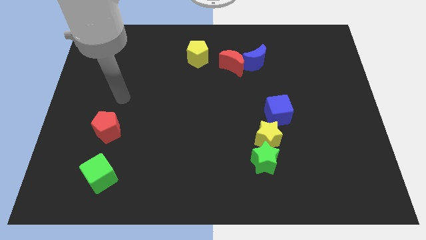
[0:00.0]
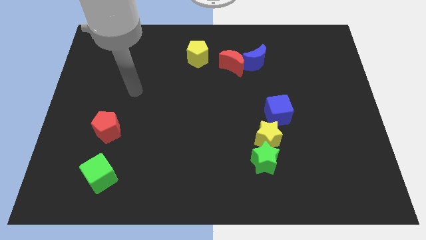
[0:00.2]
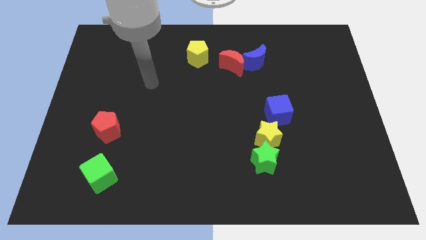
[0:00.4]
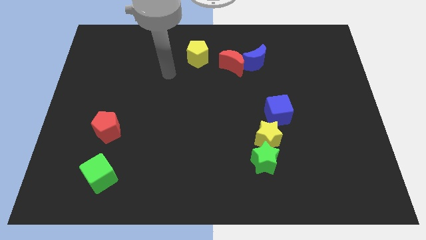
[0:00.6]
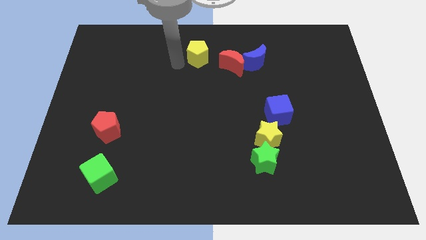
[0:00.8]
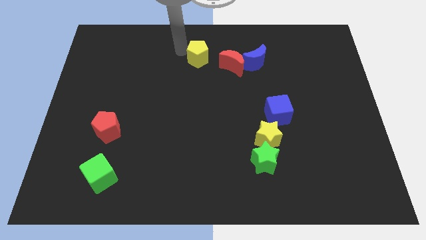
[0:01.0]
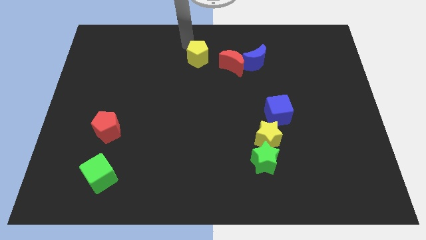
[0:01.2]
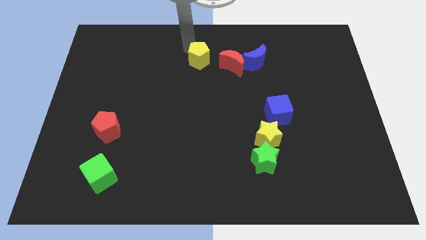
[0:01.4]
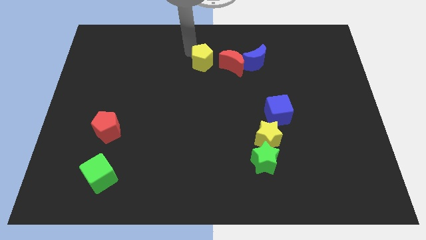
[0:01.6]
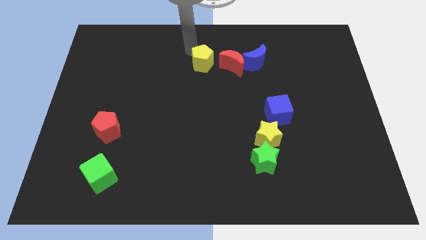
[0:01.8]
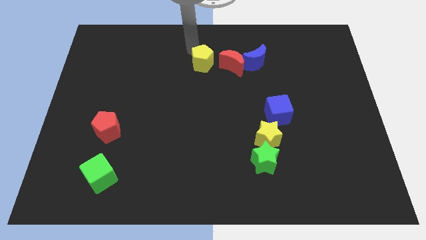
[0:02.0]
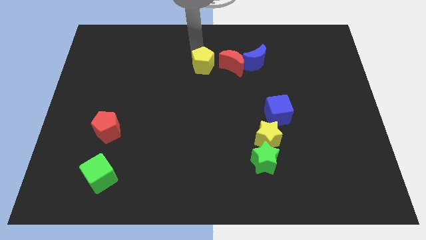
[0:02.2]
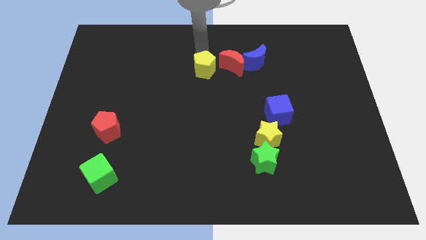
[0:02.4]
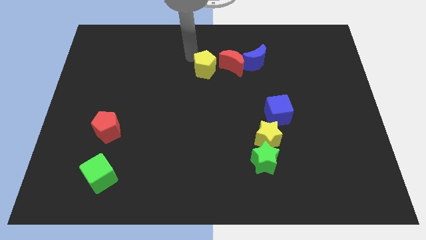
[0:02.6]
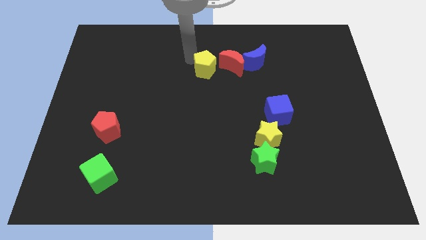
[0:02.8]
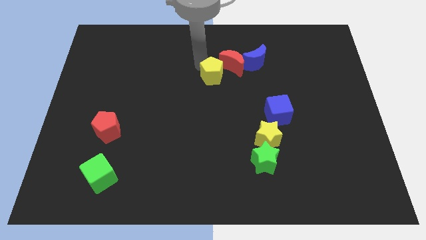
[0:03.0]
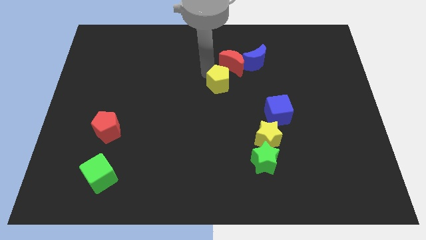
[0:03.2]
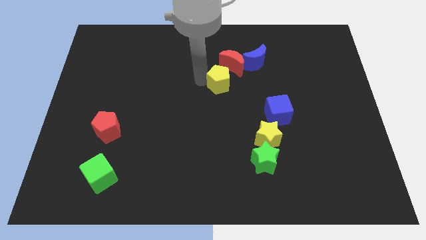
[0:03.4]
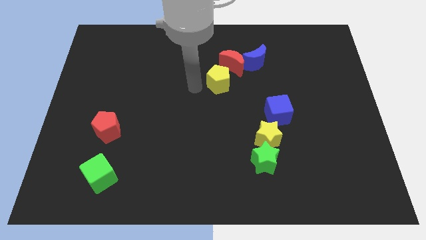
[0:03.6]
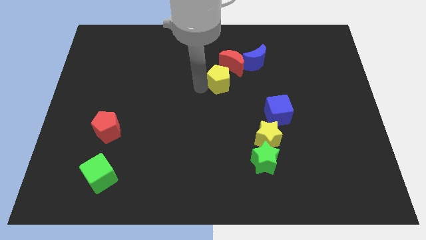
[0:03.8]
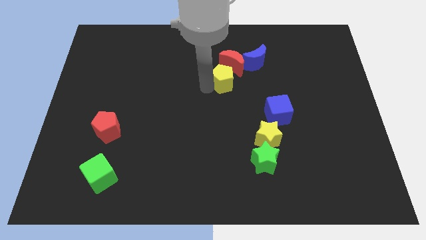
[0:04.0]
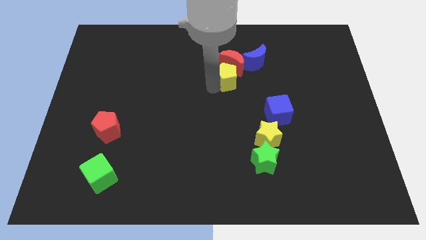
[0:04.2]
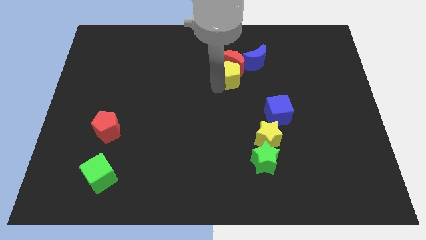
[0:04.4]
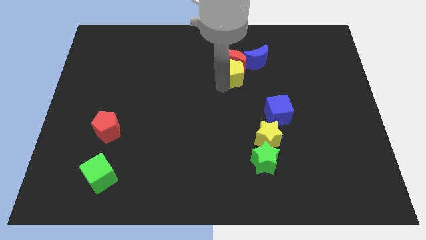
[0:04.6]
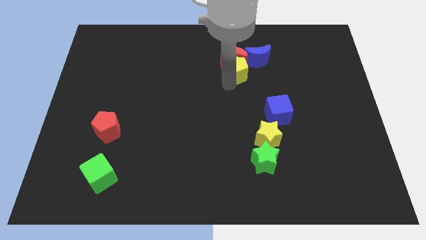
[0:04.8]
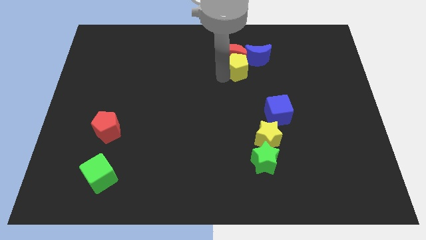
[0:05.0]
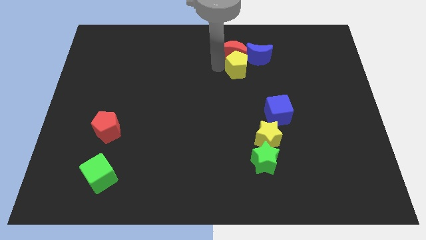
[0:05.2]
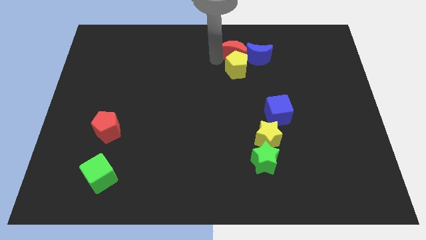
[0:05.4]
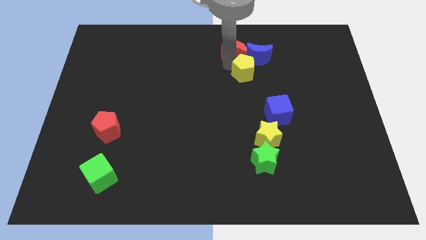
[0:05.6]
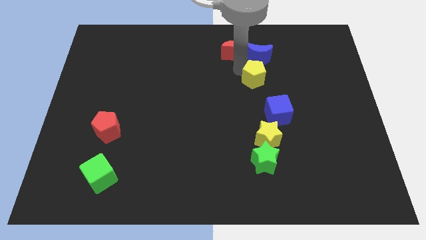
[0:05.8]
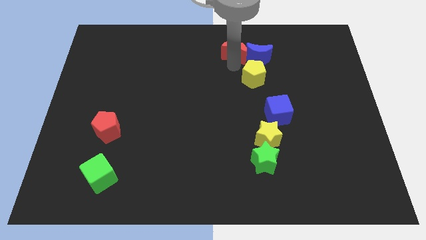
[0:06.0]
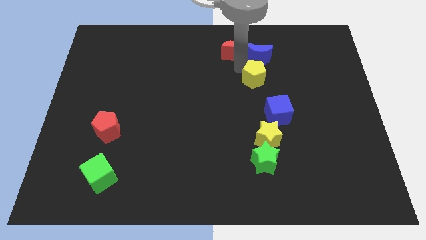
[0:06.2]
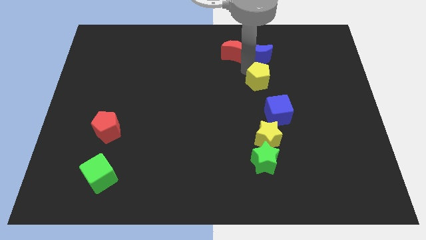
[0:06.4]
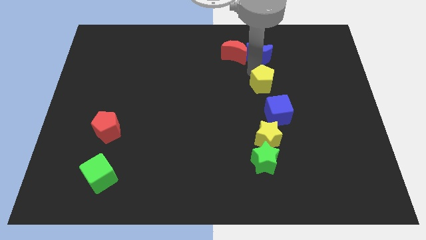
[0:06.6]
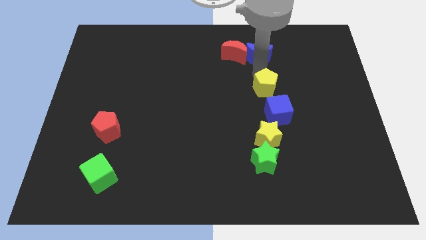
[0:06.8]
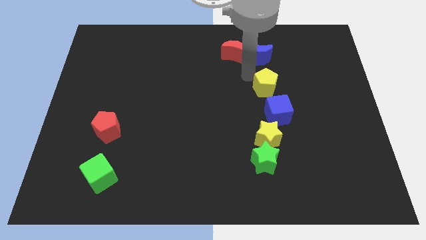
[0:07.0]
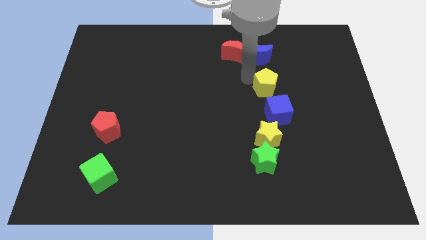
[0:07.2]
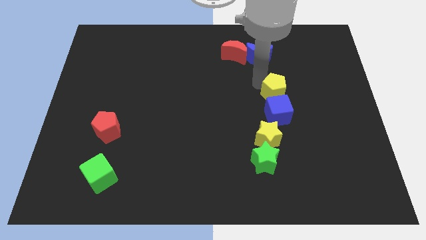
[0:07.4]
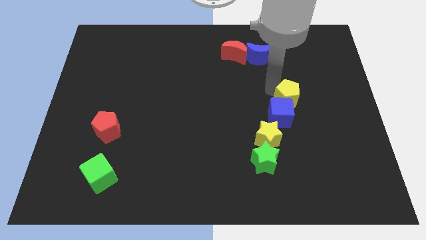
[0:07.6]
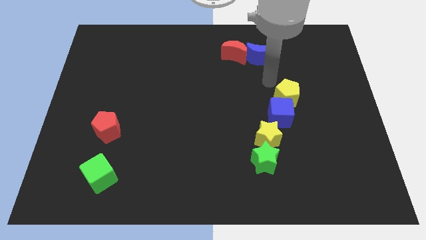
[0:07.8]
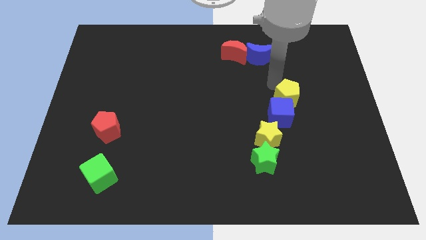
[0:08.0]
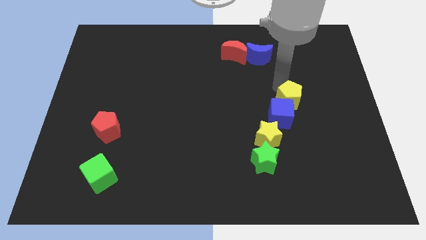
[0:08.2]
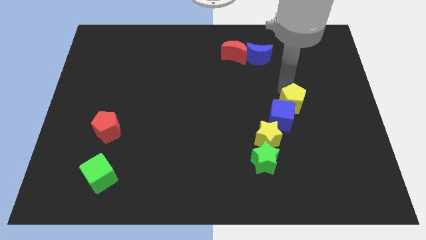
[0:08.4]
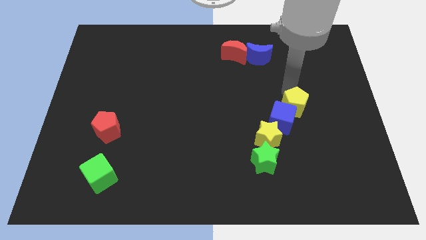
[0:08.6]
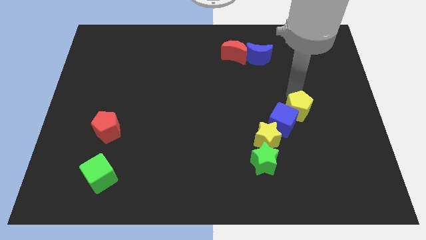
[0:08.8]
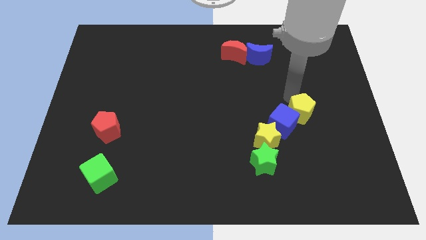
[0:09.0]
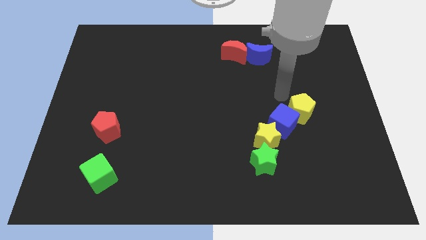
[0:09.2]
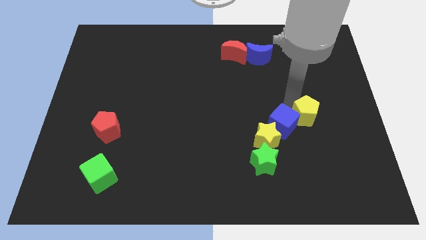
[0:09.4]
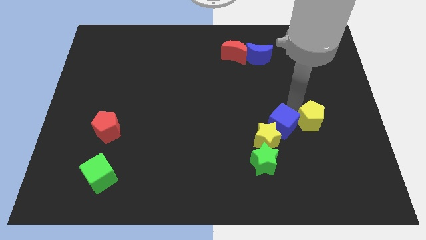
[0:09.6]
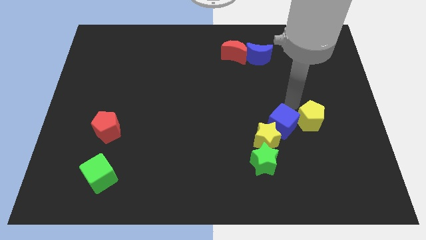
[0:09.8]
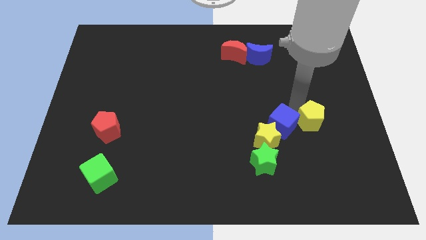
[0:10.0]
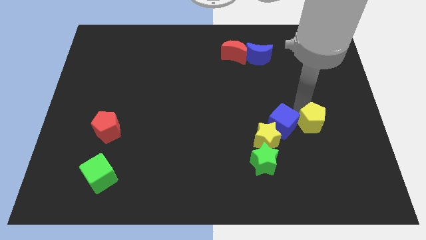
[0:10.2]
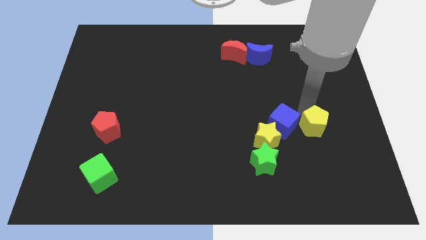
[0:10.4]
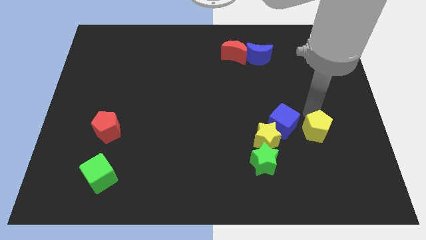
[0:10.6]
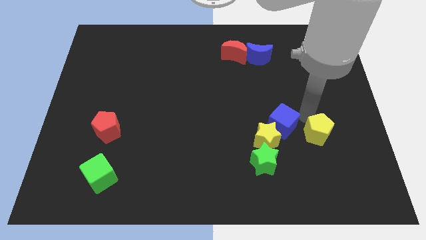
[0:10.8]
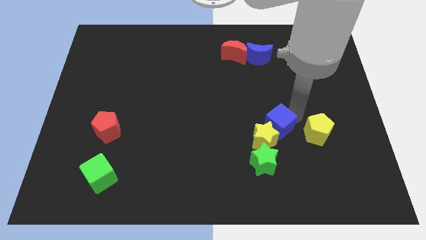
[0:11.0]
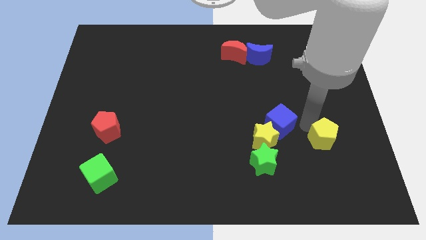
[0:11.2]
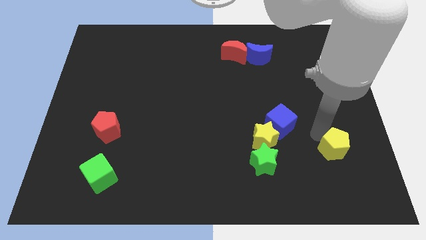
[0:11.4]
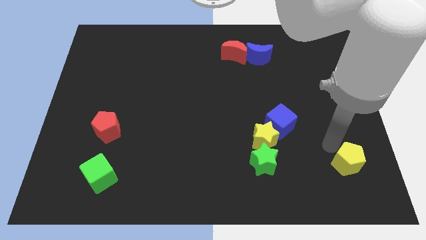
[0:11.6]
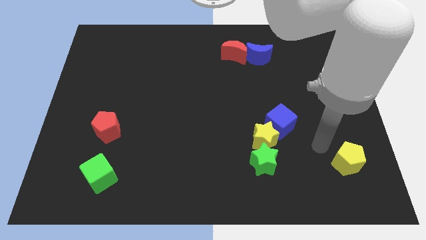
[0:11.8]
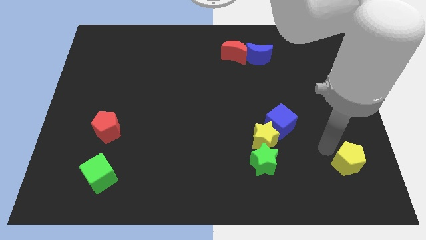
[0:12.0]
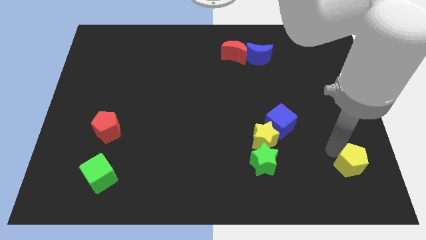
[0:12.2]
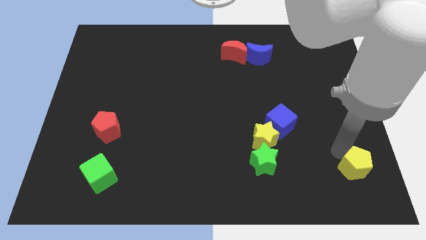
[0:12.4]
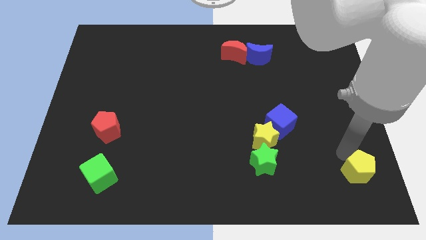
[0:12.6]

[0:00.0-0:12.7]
put the yellow pentagon to the bottom right of the board
